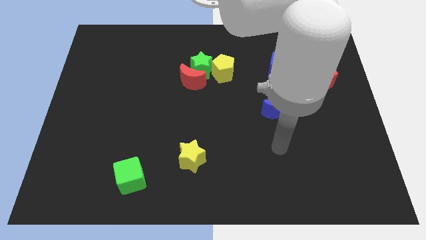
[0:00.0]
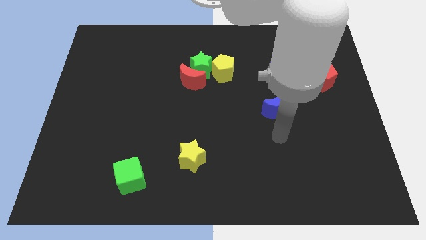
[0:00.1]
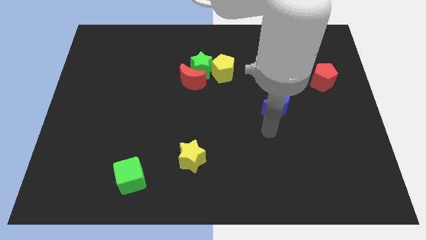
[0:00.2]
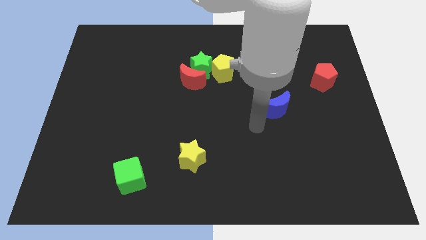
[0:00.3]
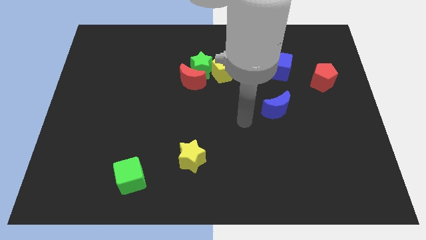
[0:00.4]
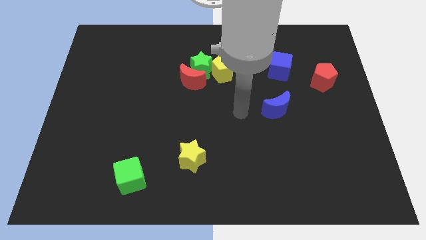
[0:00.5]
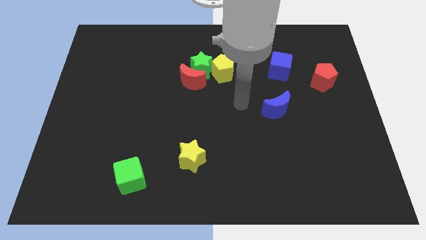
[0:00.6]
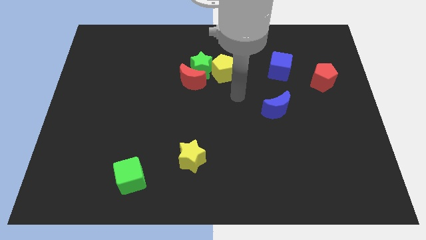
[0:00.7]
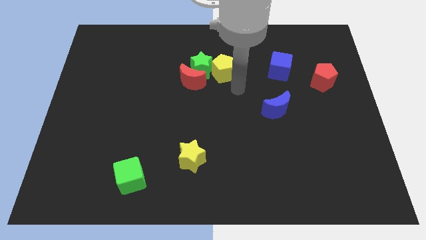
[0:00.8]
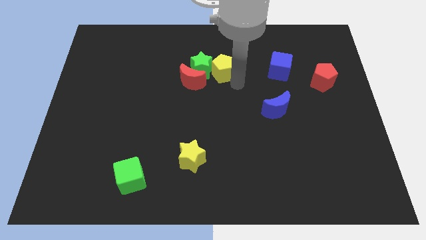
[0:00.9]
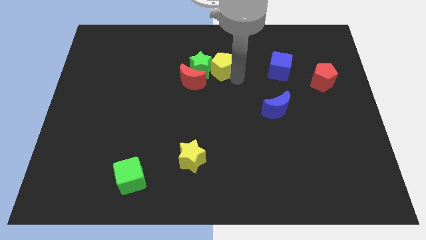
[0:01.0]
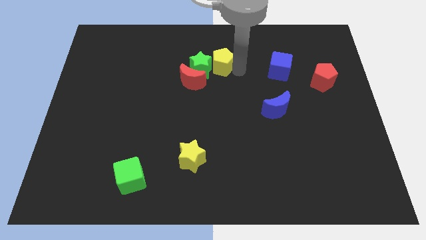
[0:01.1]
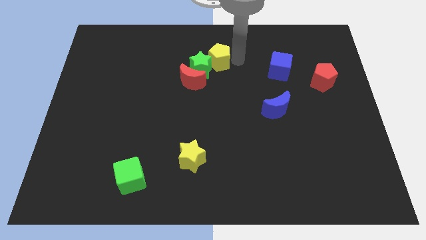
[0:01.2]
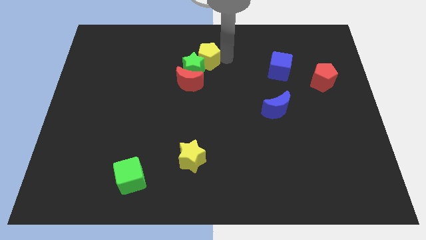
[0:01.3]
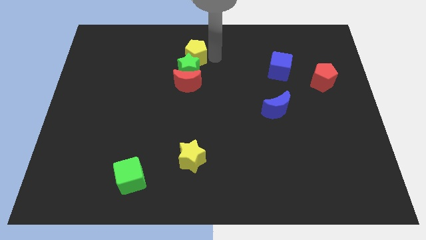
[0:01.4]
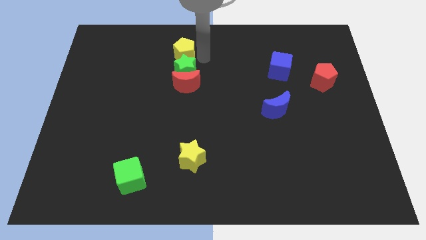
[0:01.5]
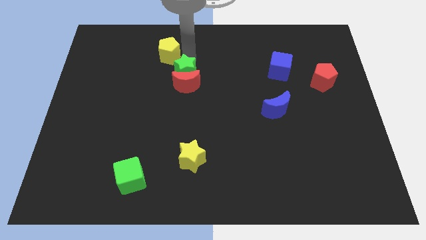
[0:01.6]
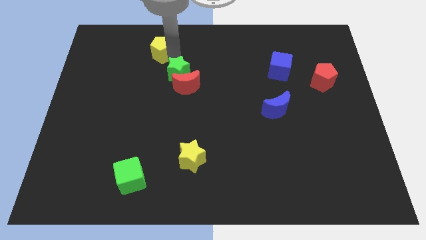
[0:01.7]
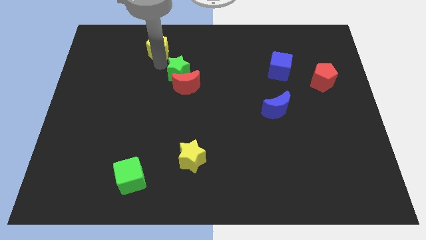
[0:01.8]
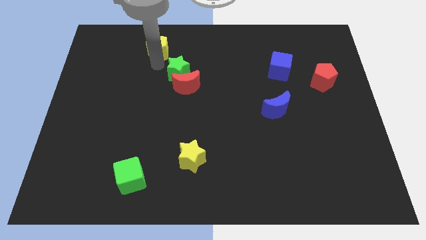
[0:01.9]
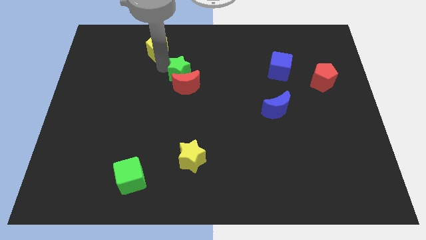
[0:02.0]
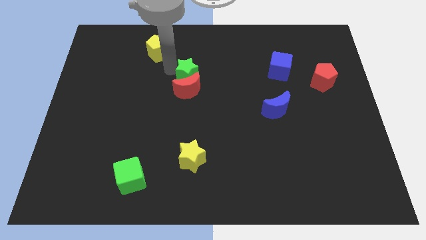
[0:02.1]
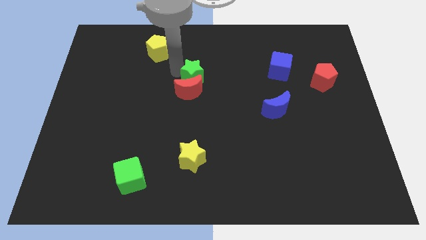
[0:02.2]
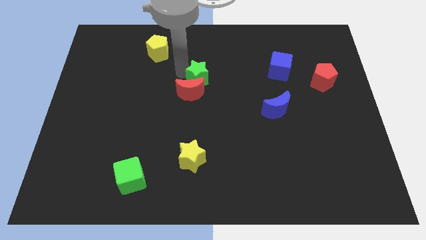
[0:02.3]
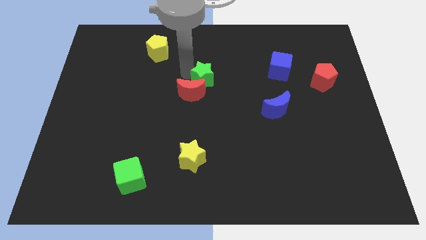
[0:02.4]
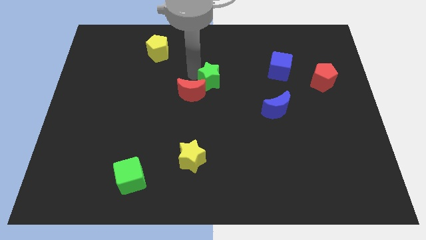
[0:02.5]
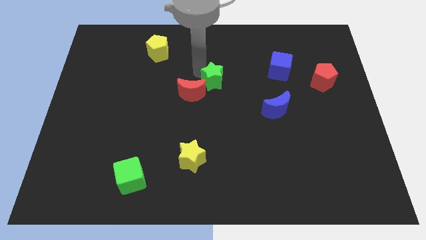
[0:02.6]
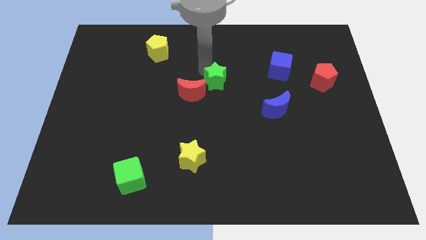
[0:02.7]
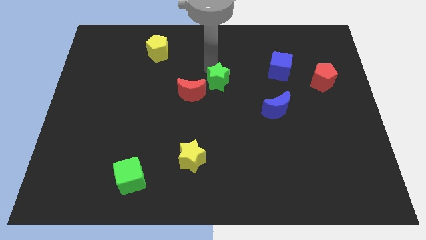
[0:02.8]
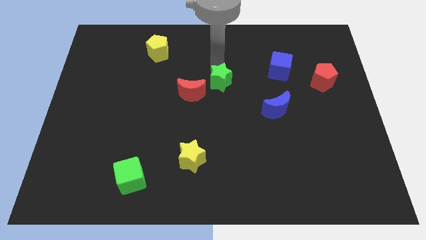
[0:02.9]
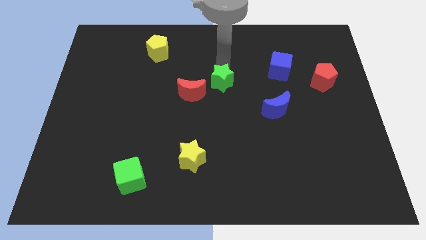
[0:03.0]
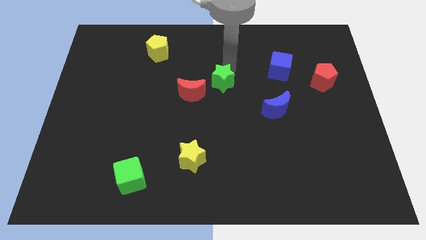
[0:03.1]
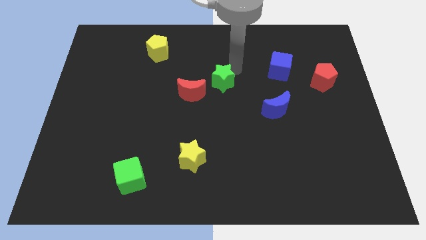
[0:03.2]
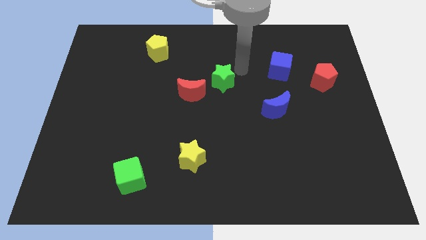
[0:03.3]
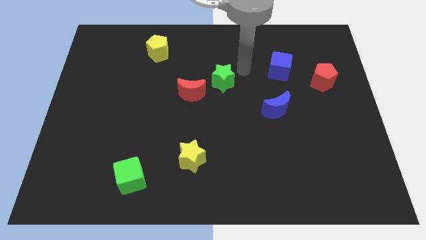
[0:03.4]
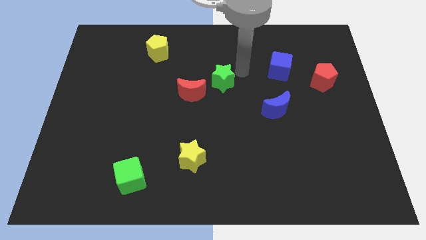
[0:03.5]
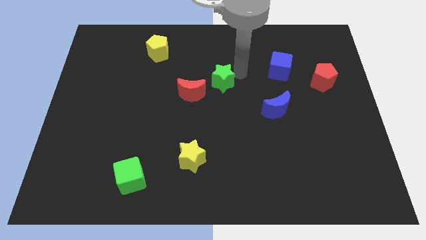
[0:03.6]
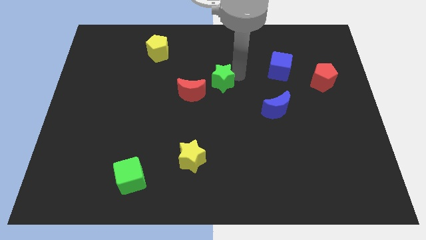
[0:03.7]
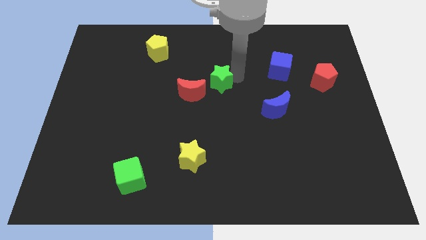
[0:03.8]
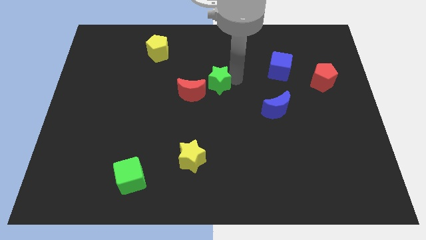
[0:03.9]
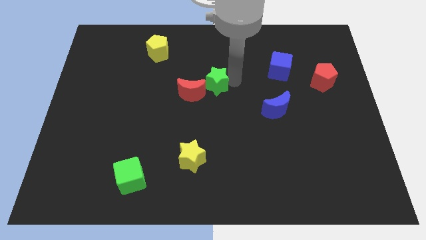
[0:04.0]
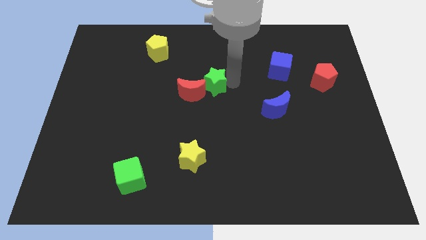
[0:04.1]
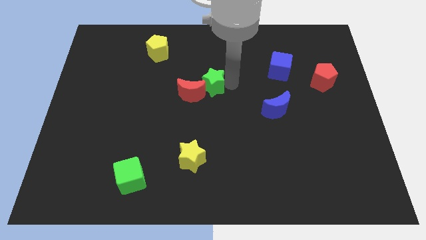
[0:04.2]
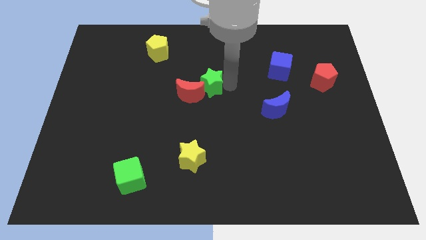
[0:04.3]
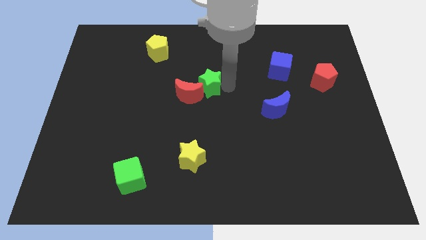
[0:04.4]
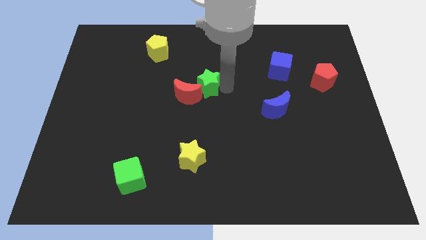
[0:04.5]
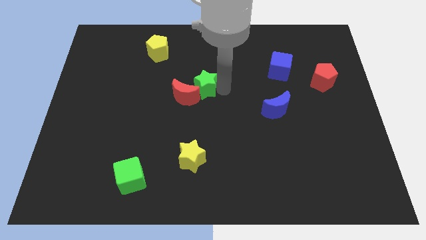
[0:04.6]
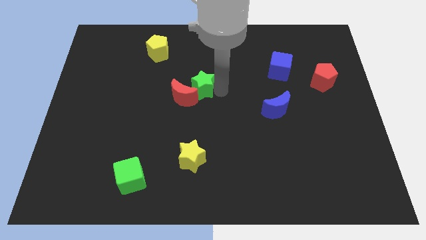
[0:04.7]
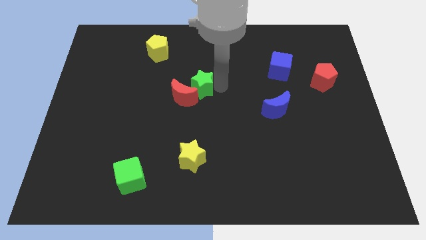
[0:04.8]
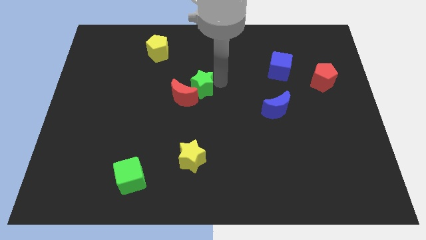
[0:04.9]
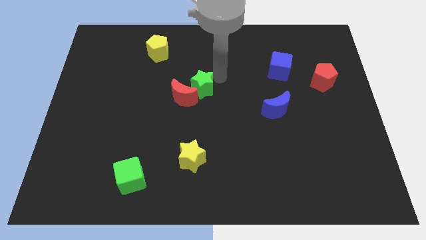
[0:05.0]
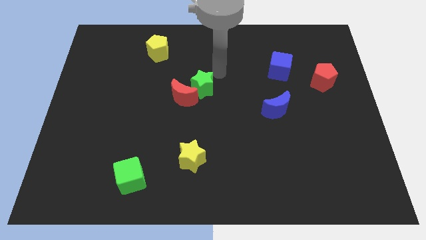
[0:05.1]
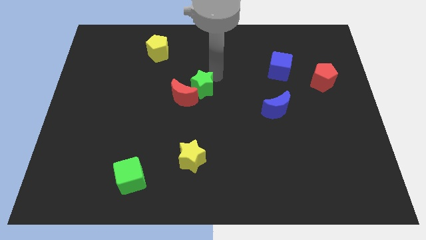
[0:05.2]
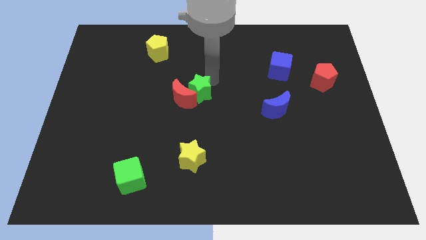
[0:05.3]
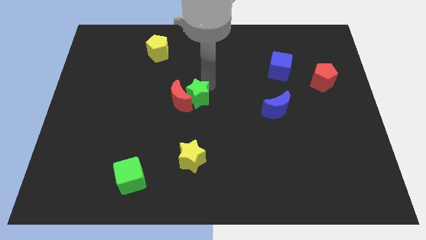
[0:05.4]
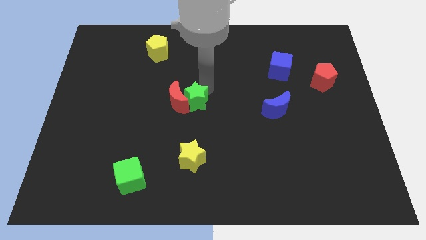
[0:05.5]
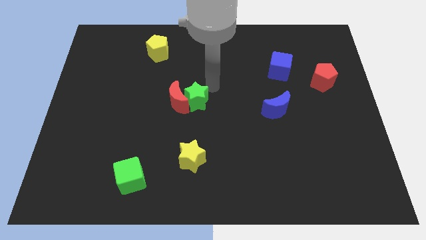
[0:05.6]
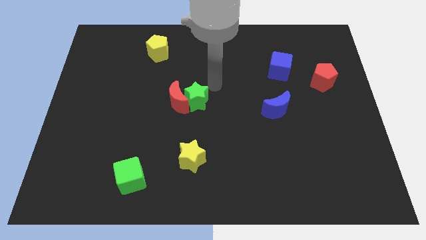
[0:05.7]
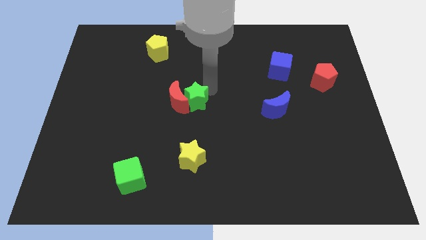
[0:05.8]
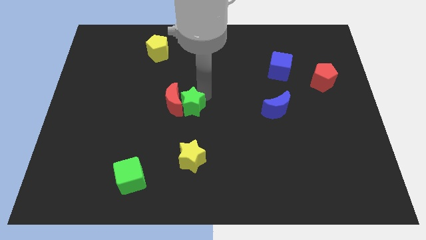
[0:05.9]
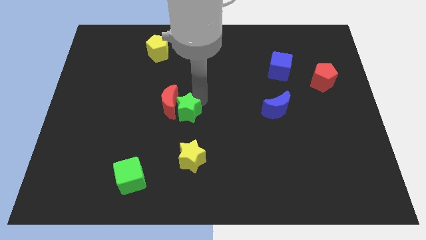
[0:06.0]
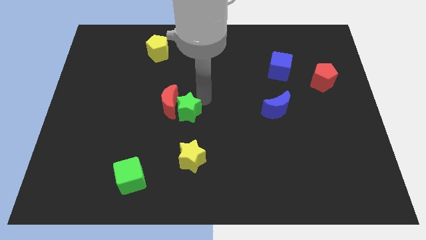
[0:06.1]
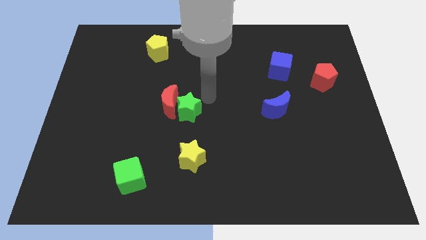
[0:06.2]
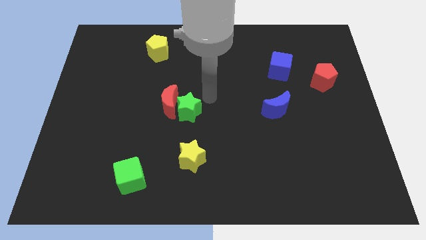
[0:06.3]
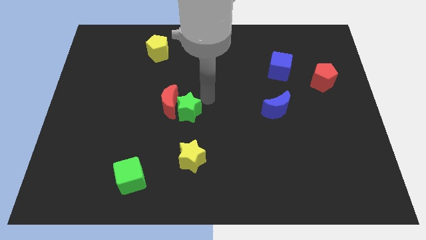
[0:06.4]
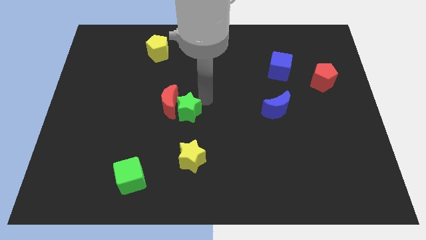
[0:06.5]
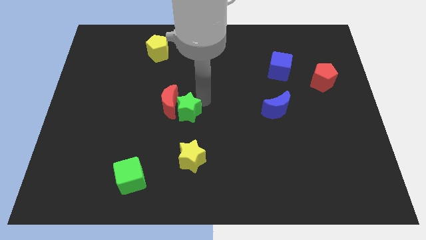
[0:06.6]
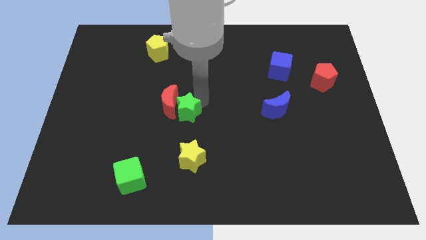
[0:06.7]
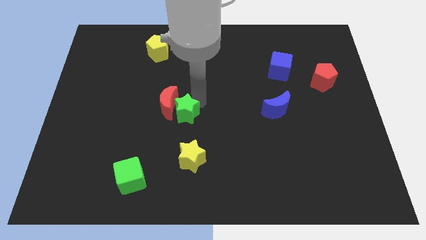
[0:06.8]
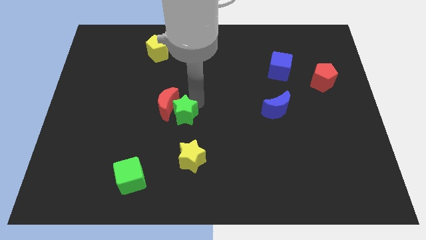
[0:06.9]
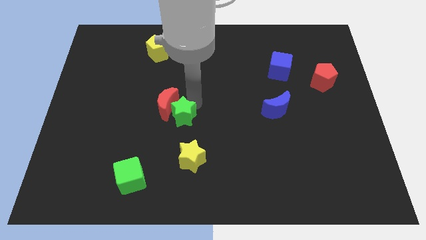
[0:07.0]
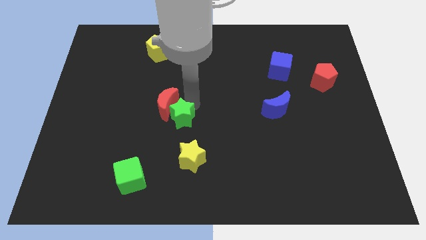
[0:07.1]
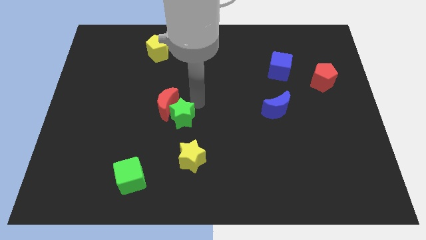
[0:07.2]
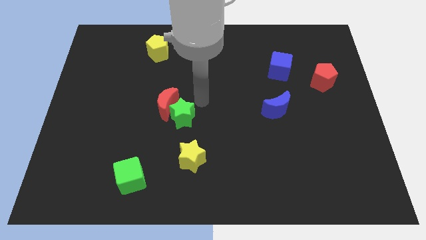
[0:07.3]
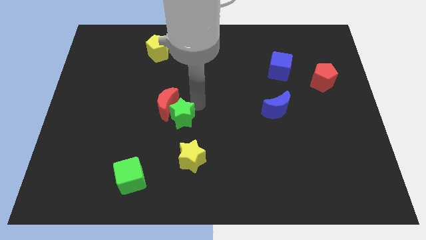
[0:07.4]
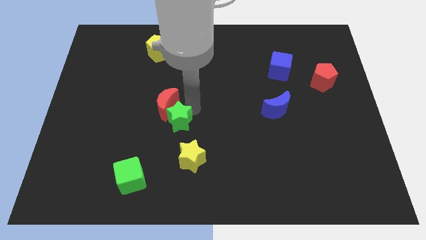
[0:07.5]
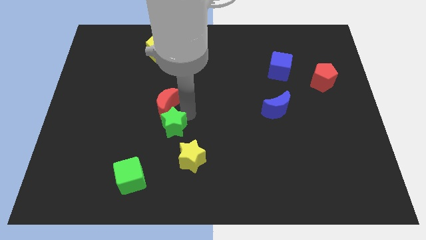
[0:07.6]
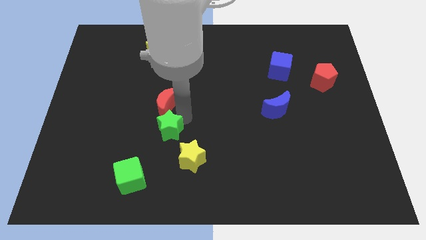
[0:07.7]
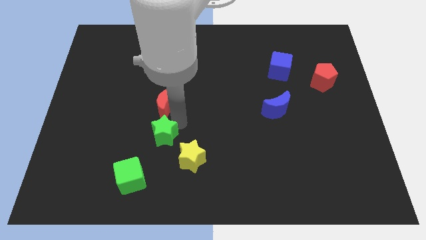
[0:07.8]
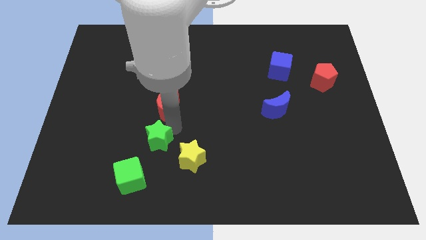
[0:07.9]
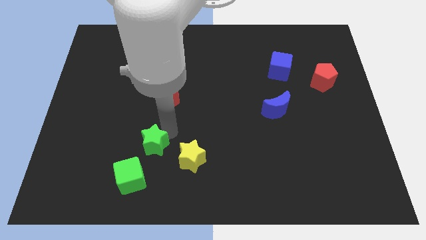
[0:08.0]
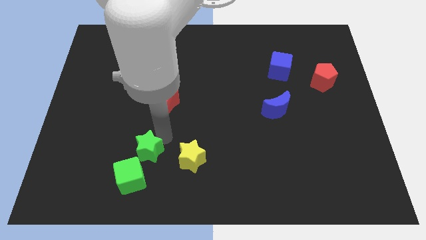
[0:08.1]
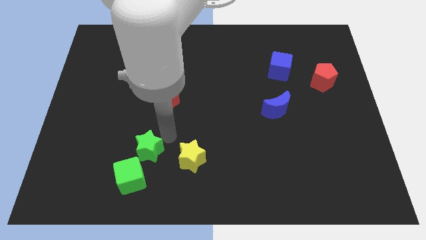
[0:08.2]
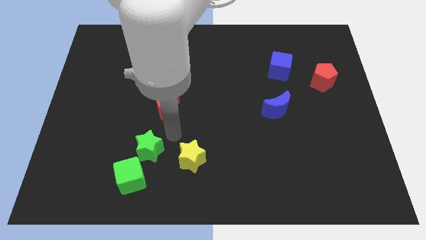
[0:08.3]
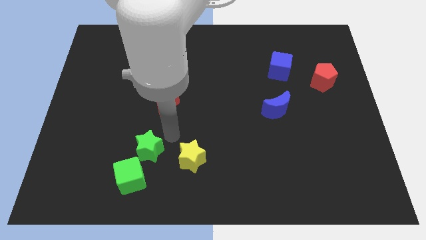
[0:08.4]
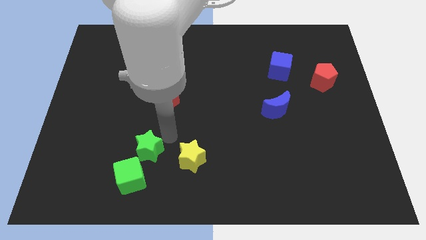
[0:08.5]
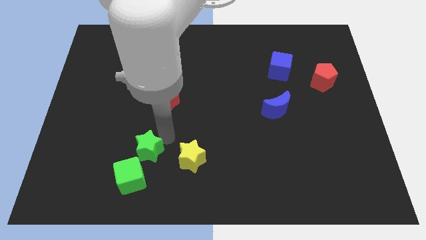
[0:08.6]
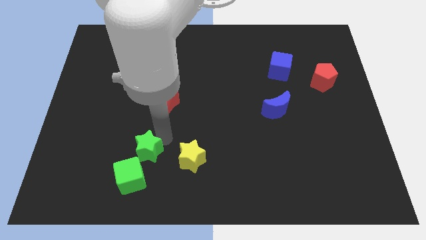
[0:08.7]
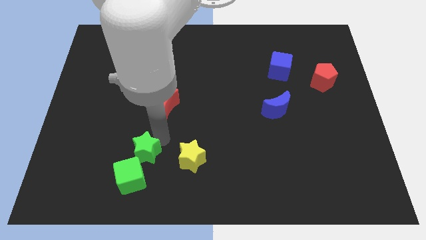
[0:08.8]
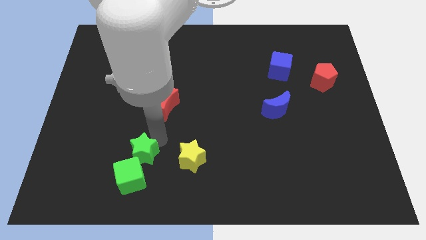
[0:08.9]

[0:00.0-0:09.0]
move the green star close to the green cube
